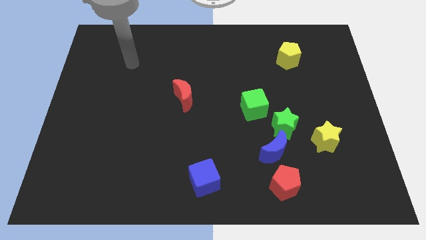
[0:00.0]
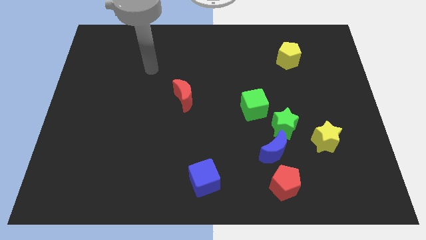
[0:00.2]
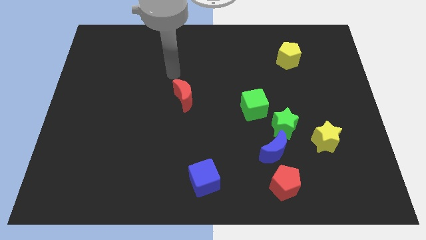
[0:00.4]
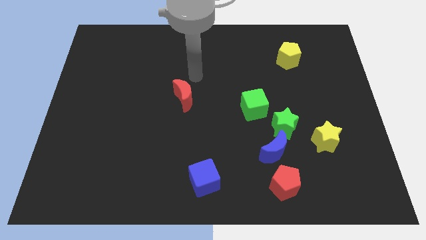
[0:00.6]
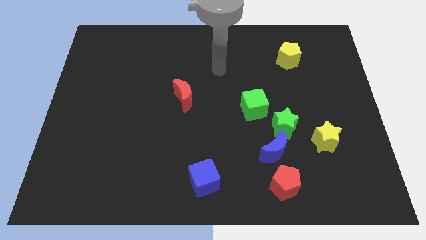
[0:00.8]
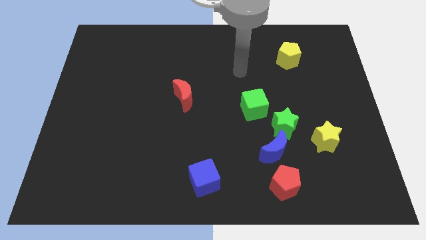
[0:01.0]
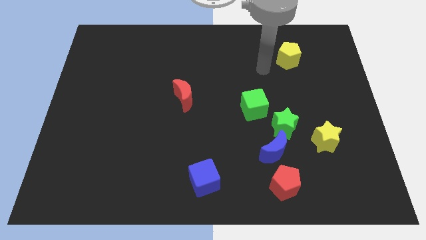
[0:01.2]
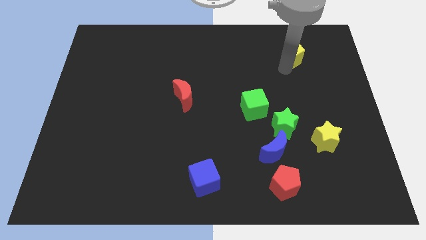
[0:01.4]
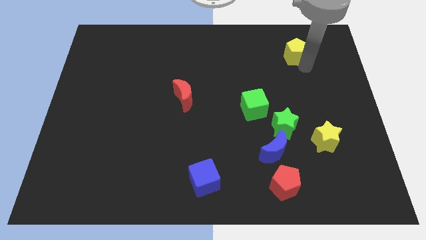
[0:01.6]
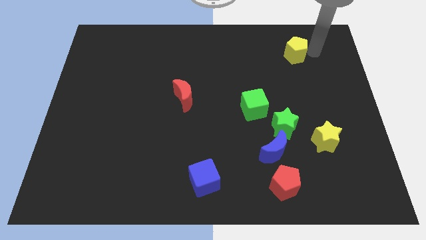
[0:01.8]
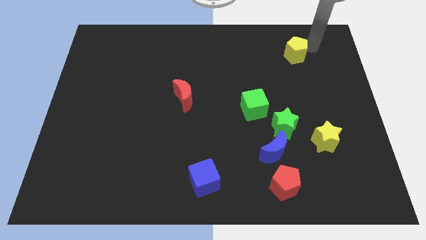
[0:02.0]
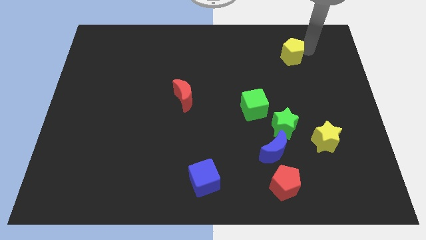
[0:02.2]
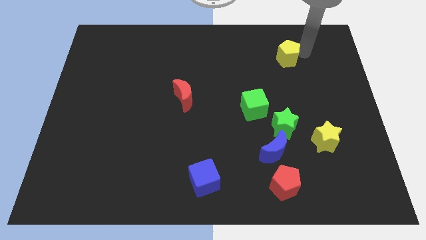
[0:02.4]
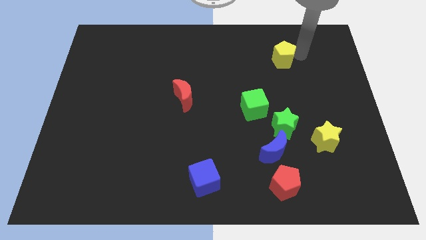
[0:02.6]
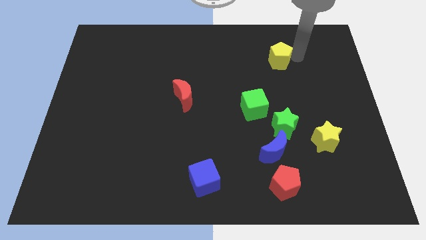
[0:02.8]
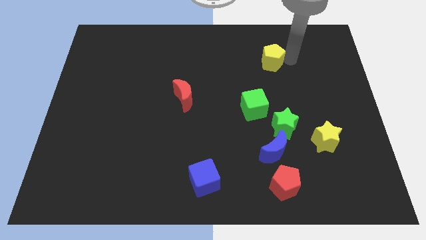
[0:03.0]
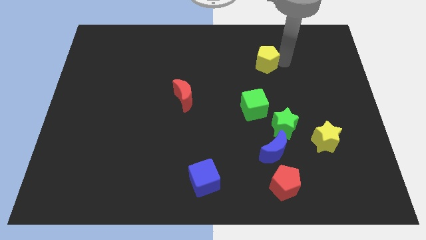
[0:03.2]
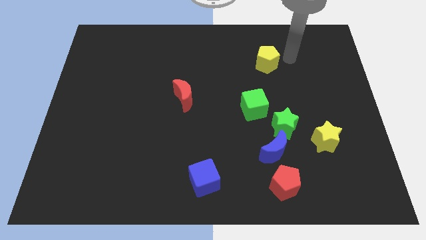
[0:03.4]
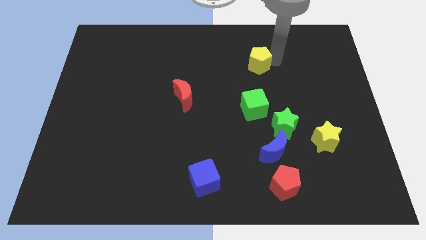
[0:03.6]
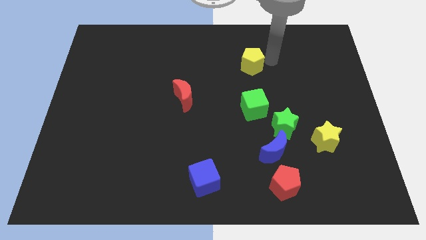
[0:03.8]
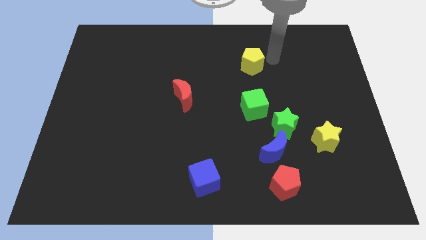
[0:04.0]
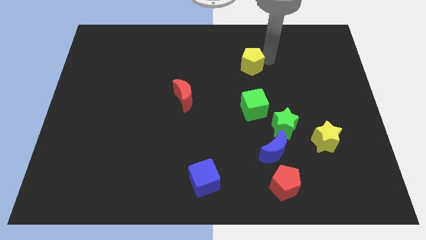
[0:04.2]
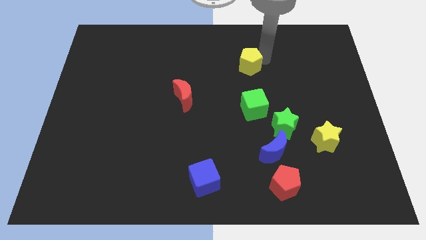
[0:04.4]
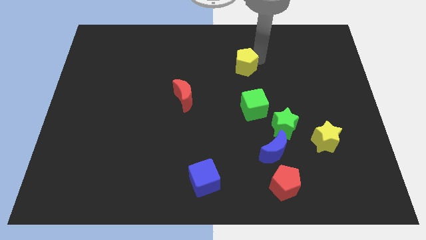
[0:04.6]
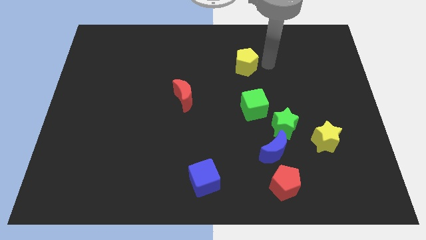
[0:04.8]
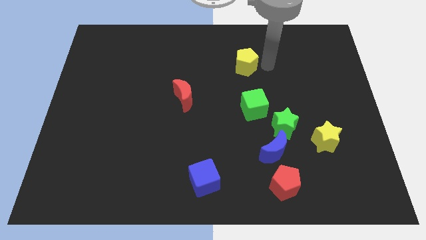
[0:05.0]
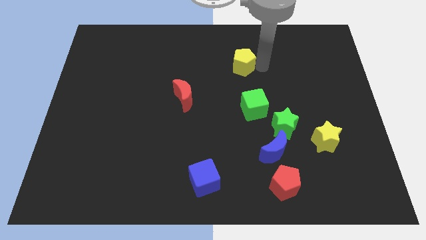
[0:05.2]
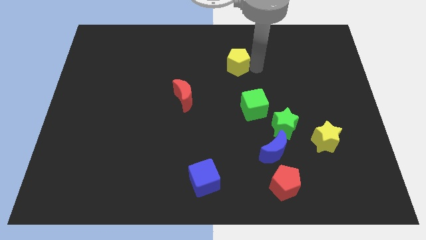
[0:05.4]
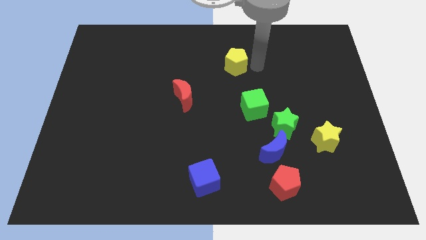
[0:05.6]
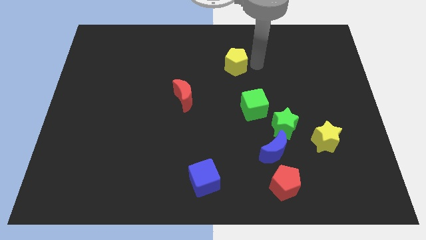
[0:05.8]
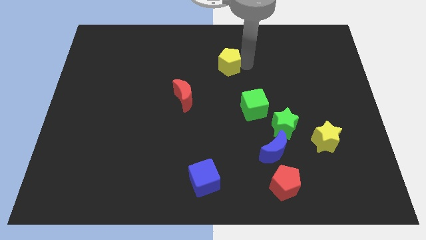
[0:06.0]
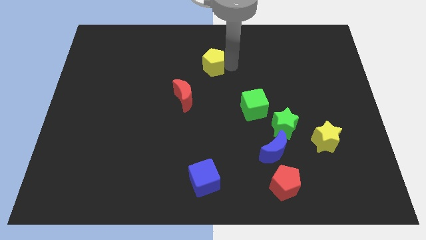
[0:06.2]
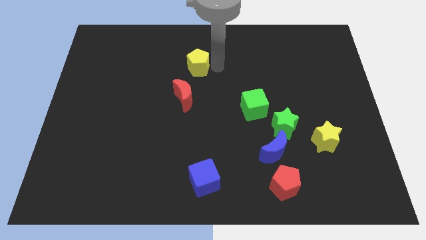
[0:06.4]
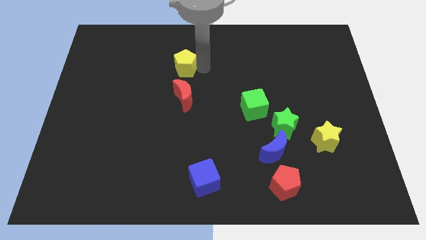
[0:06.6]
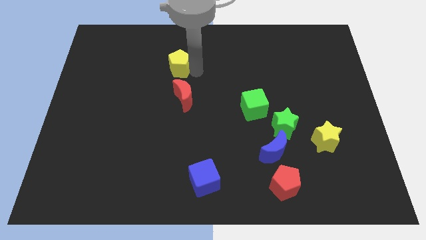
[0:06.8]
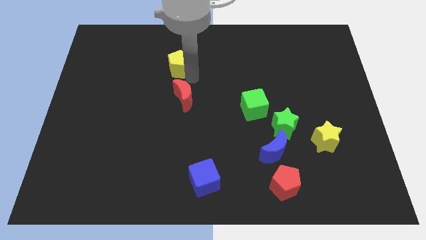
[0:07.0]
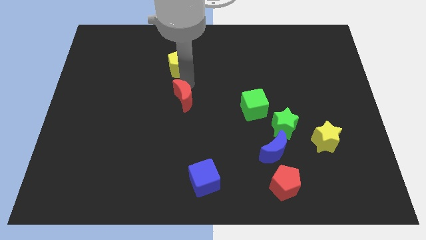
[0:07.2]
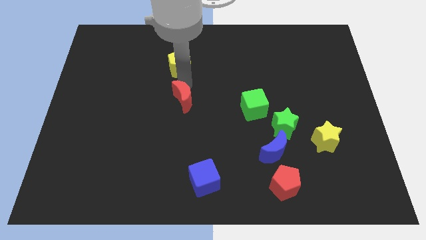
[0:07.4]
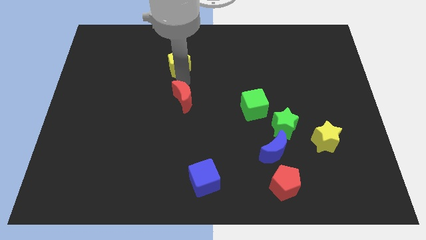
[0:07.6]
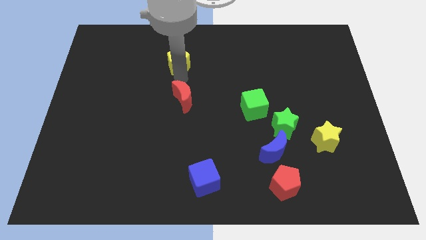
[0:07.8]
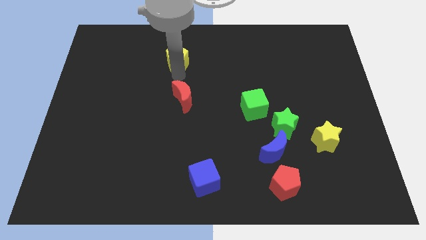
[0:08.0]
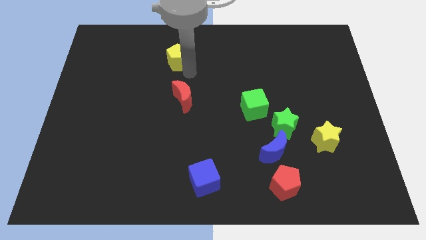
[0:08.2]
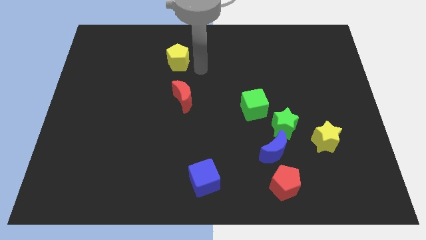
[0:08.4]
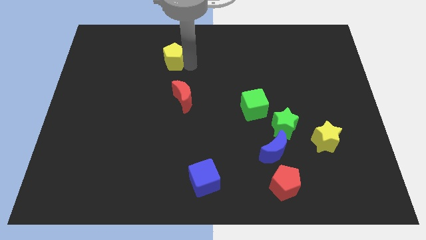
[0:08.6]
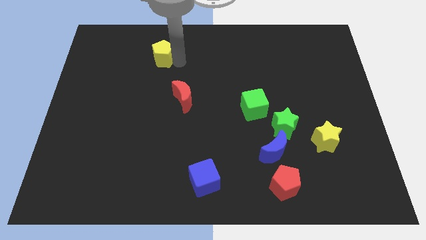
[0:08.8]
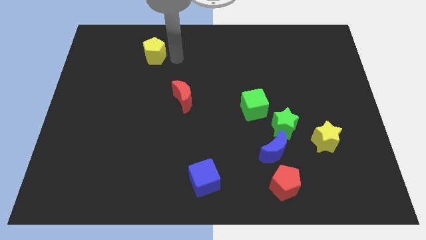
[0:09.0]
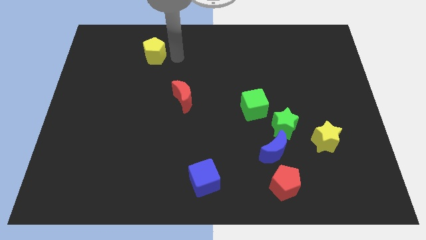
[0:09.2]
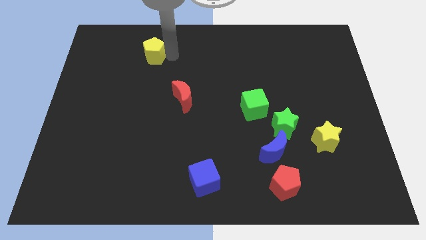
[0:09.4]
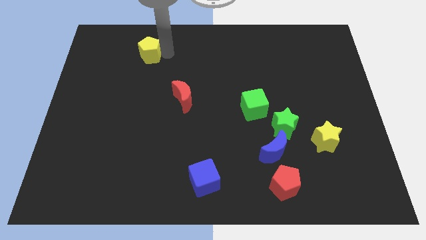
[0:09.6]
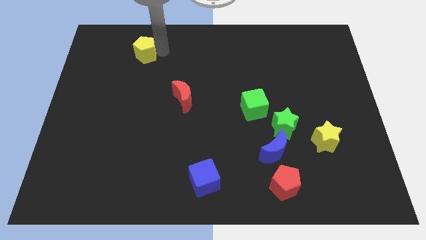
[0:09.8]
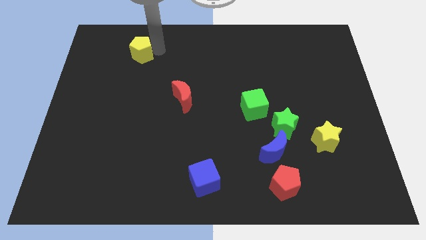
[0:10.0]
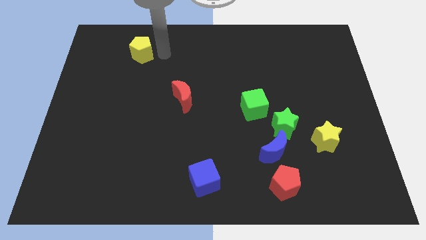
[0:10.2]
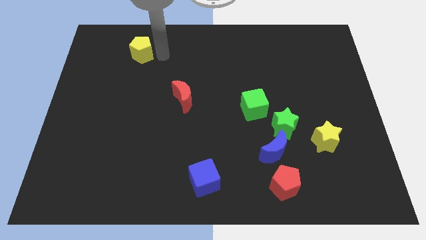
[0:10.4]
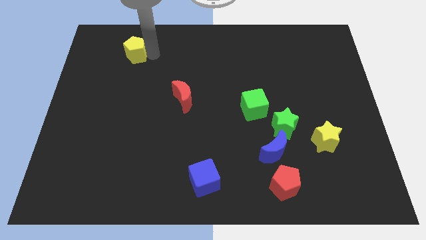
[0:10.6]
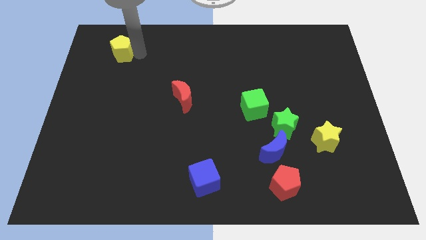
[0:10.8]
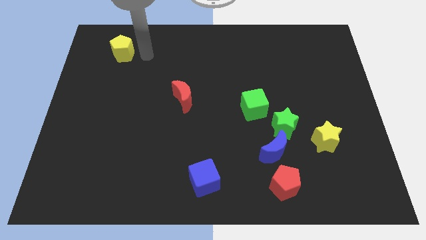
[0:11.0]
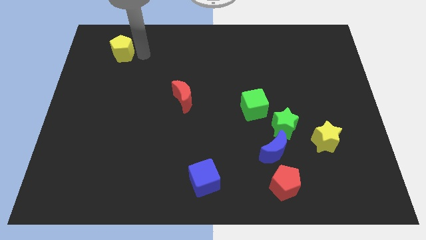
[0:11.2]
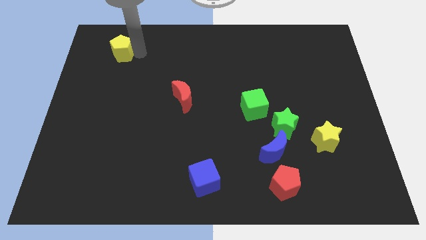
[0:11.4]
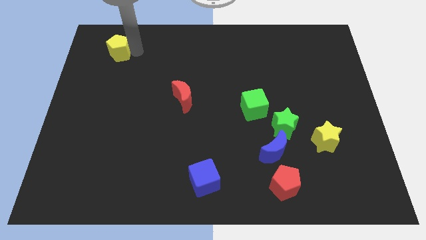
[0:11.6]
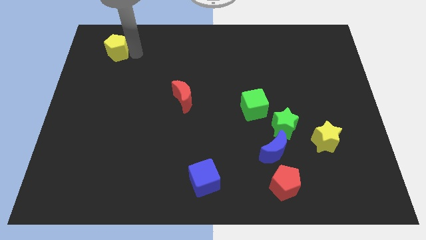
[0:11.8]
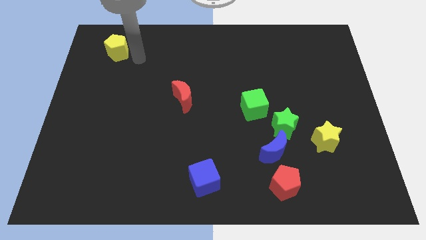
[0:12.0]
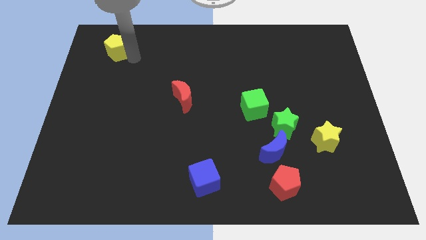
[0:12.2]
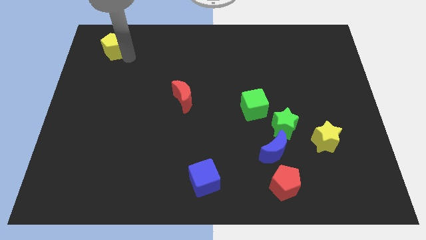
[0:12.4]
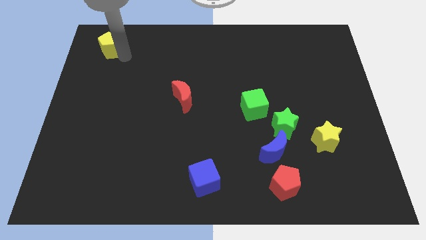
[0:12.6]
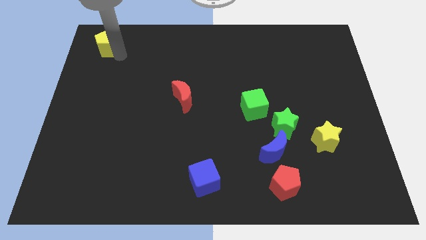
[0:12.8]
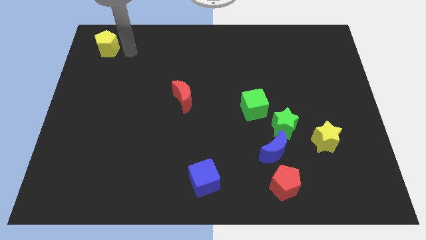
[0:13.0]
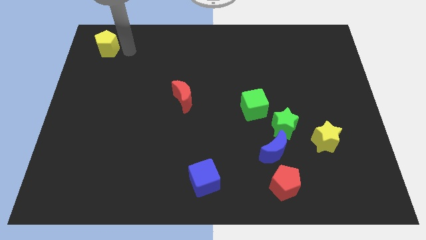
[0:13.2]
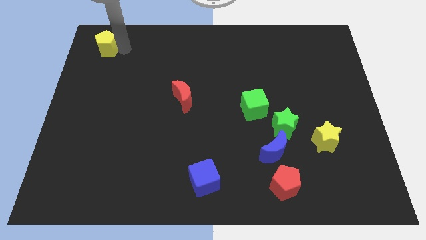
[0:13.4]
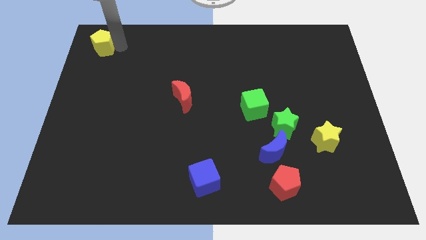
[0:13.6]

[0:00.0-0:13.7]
move the yellow pentagon to the top left
